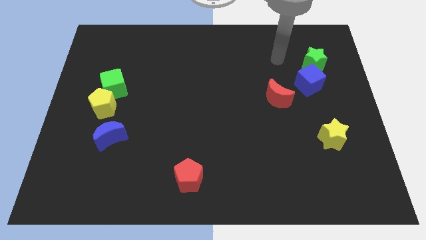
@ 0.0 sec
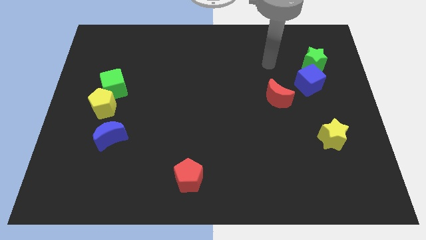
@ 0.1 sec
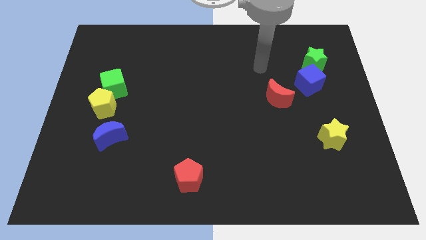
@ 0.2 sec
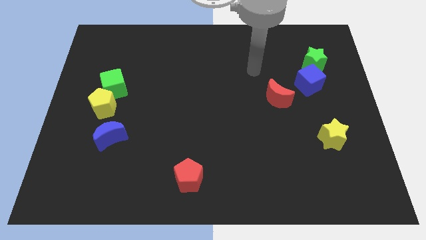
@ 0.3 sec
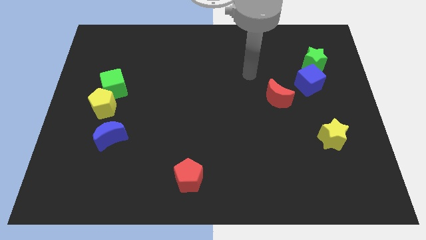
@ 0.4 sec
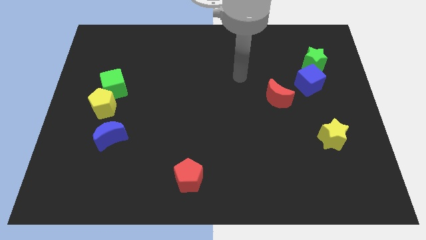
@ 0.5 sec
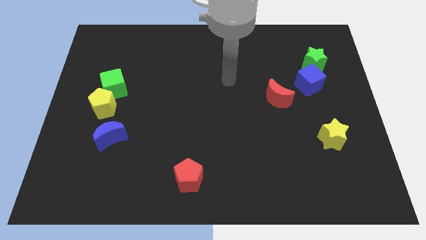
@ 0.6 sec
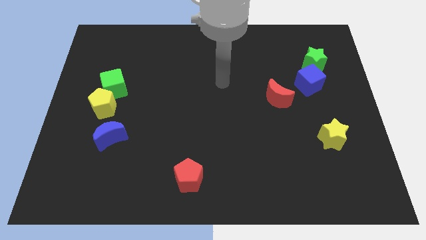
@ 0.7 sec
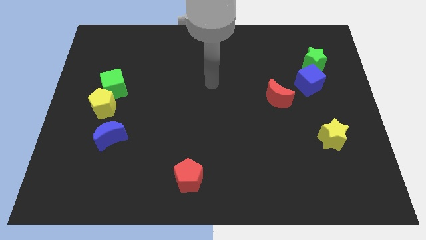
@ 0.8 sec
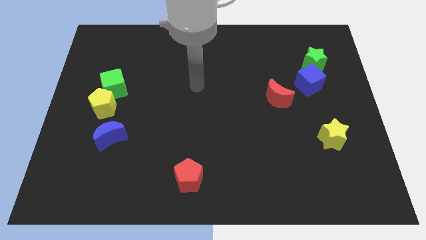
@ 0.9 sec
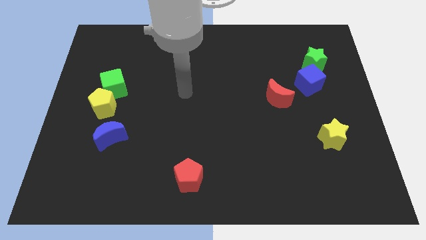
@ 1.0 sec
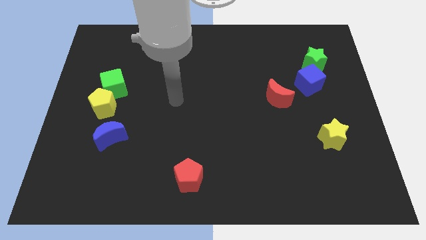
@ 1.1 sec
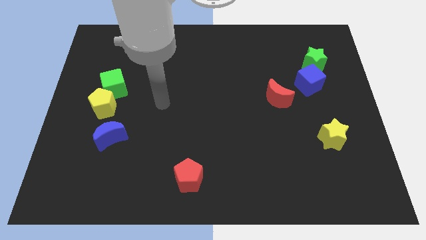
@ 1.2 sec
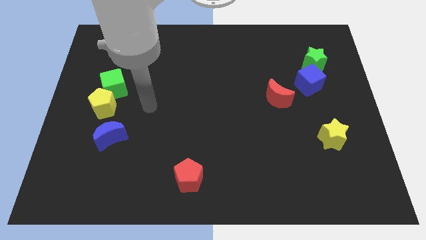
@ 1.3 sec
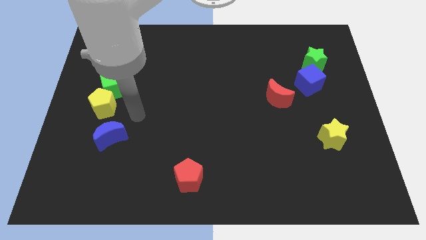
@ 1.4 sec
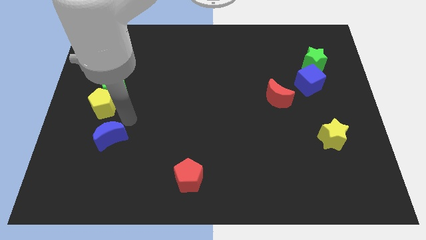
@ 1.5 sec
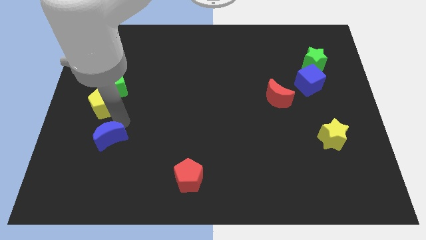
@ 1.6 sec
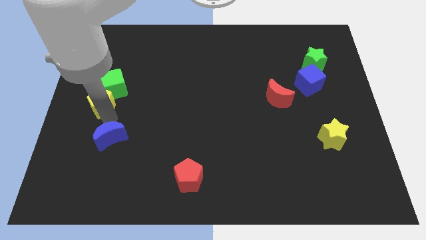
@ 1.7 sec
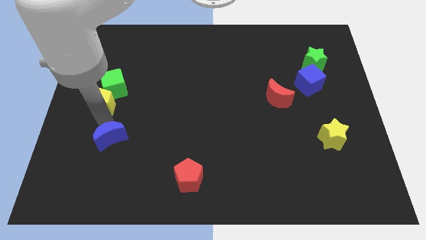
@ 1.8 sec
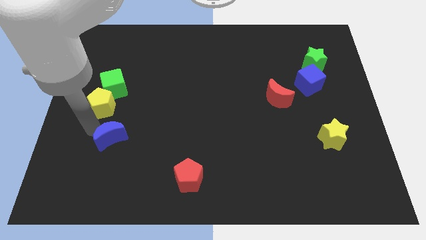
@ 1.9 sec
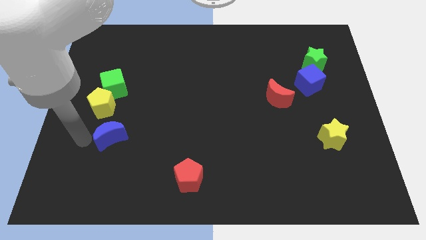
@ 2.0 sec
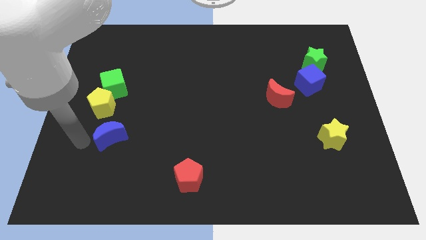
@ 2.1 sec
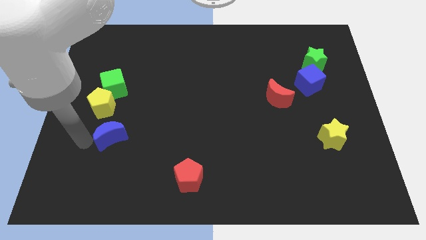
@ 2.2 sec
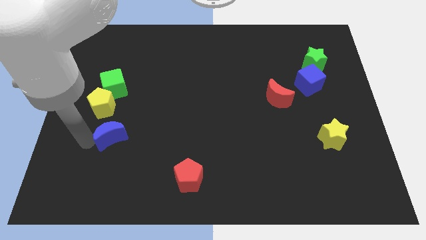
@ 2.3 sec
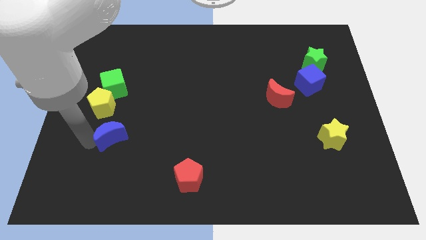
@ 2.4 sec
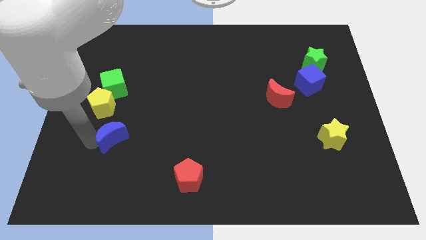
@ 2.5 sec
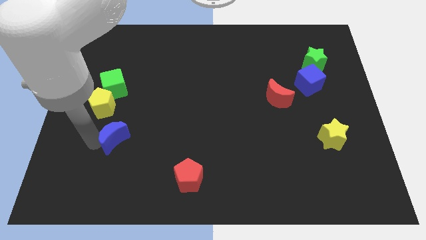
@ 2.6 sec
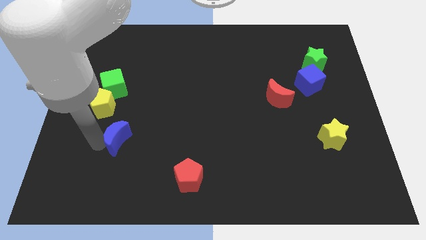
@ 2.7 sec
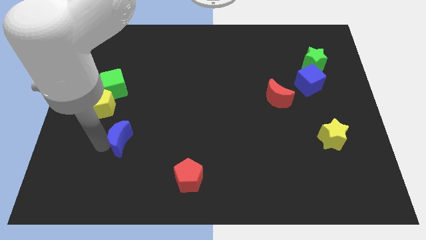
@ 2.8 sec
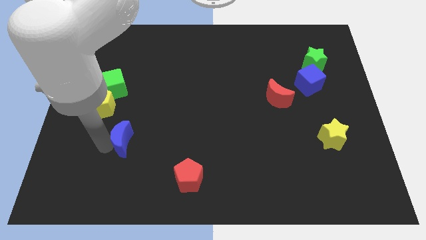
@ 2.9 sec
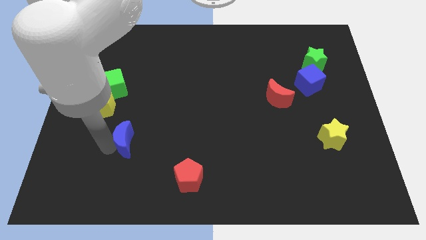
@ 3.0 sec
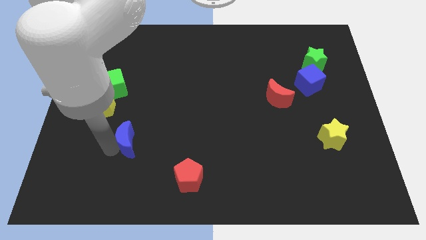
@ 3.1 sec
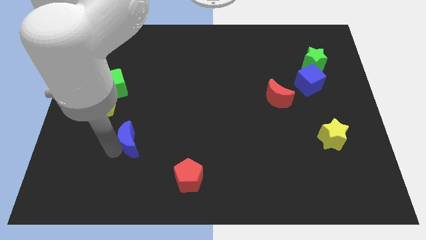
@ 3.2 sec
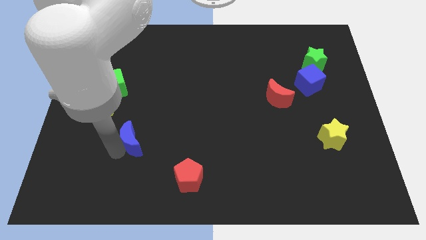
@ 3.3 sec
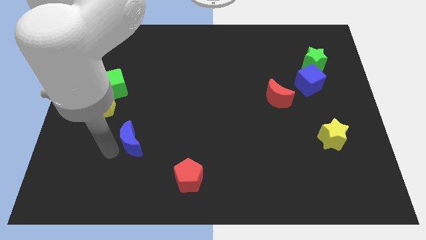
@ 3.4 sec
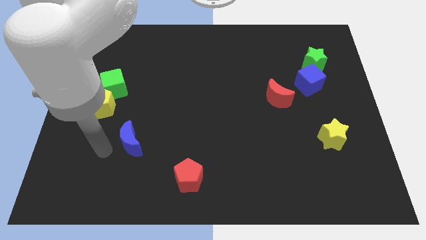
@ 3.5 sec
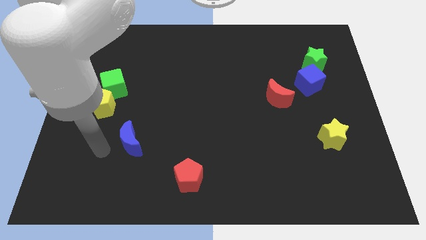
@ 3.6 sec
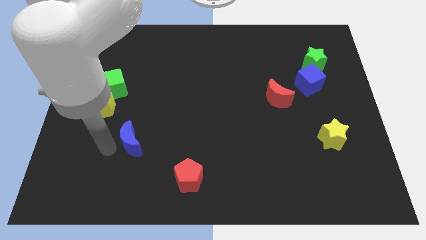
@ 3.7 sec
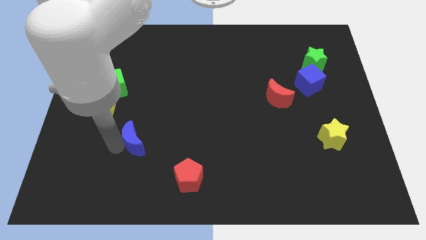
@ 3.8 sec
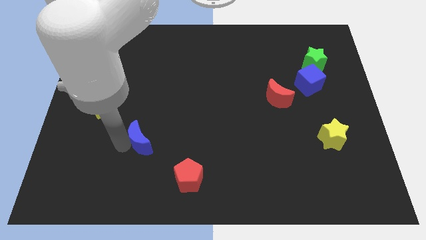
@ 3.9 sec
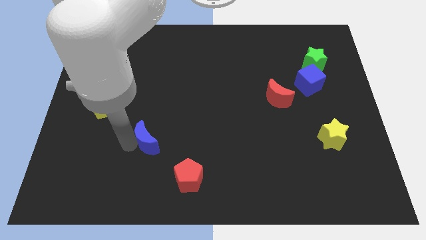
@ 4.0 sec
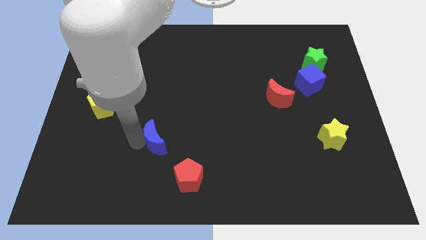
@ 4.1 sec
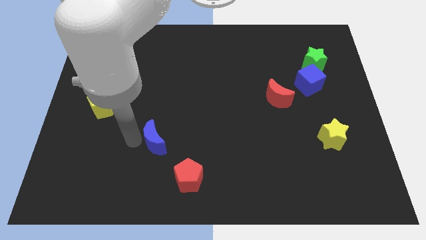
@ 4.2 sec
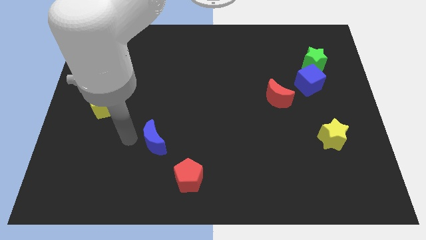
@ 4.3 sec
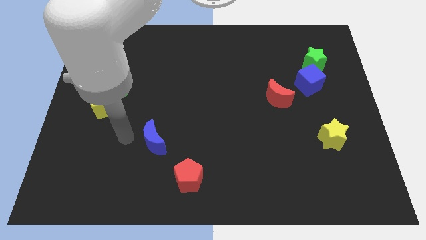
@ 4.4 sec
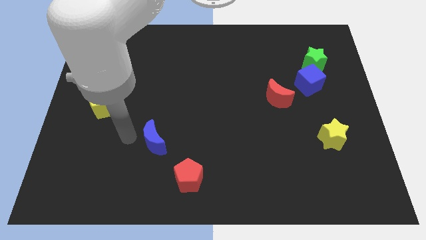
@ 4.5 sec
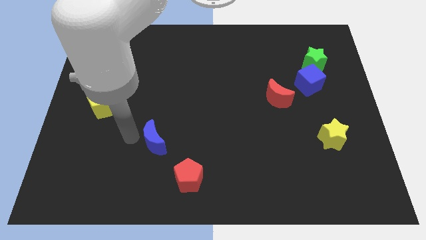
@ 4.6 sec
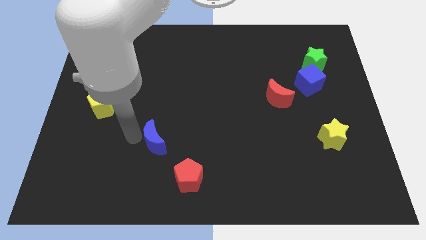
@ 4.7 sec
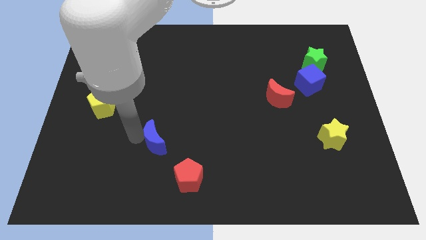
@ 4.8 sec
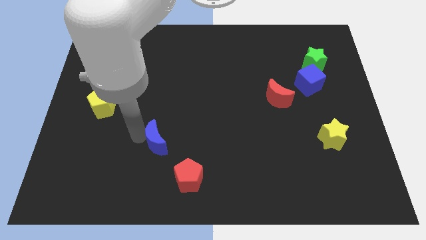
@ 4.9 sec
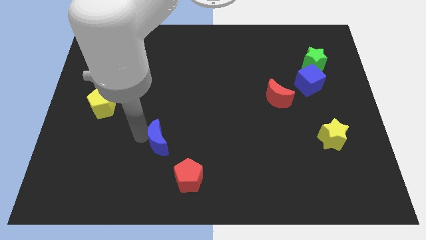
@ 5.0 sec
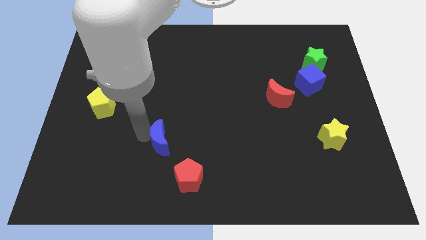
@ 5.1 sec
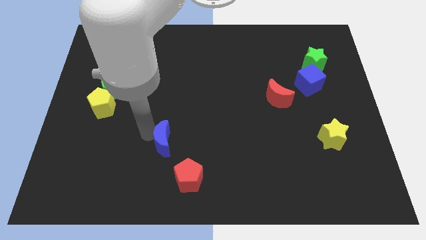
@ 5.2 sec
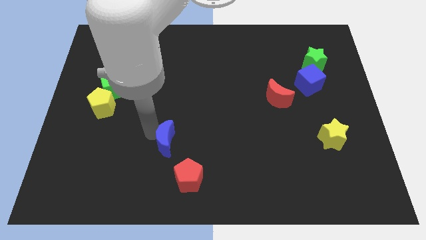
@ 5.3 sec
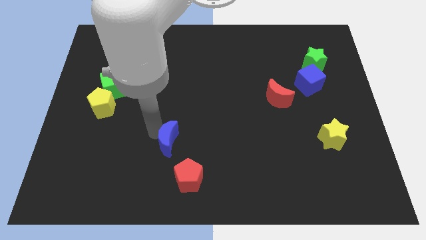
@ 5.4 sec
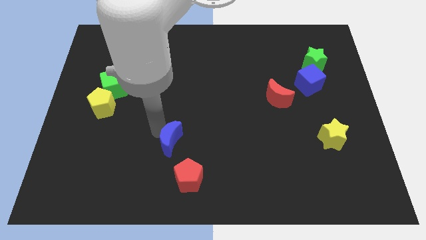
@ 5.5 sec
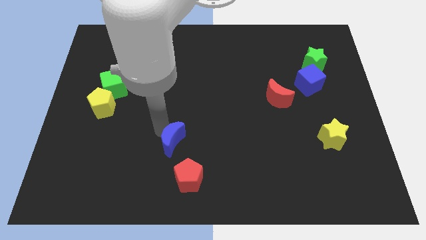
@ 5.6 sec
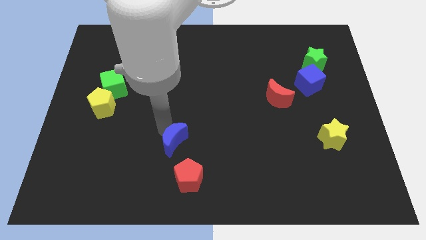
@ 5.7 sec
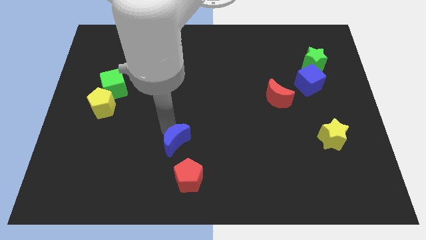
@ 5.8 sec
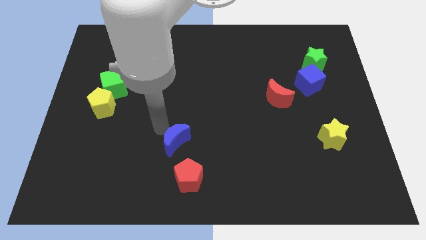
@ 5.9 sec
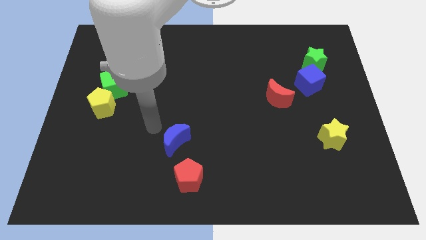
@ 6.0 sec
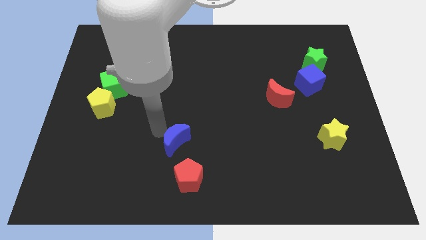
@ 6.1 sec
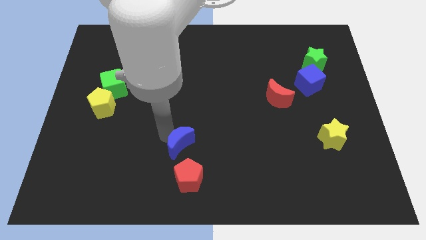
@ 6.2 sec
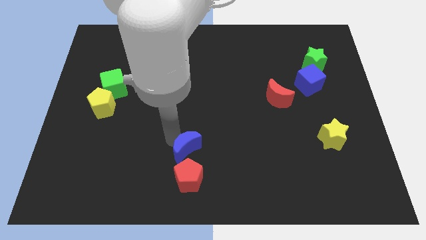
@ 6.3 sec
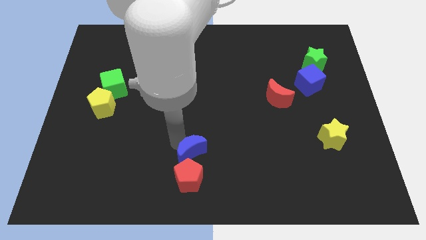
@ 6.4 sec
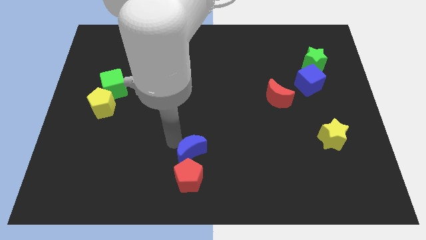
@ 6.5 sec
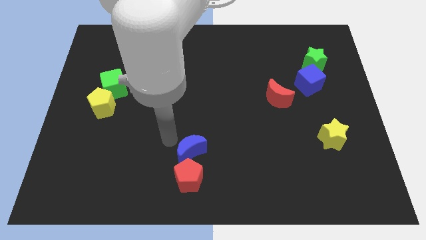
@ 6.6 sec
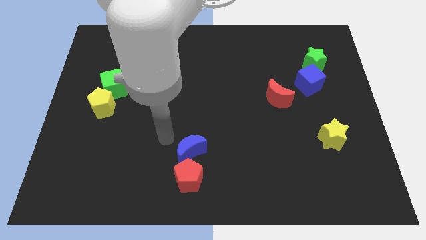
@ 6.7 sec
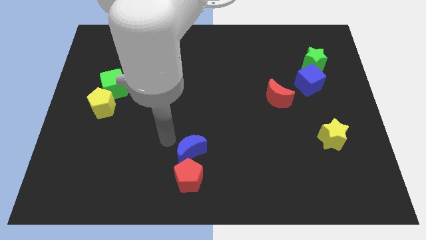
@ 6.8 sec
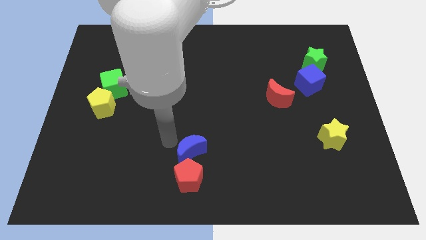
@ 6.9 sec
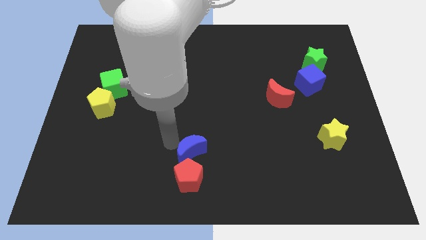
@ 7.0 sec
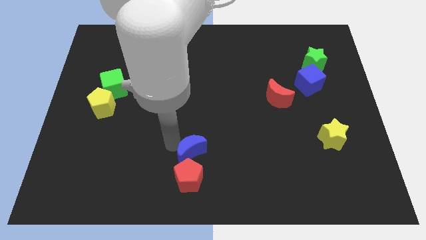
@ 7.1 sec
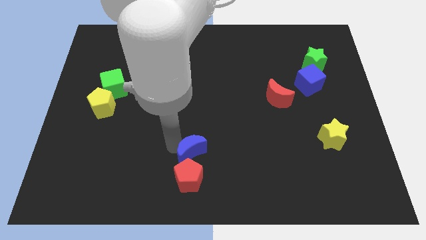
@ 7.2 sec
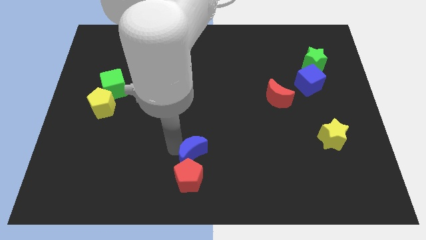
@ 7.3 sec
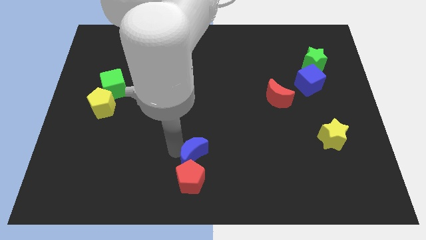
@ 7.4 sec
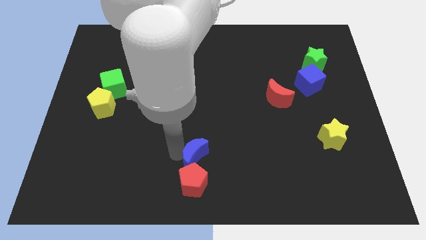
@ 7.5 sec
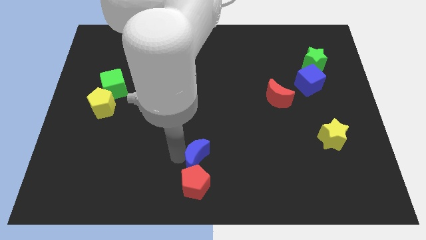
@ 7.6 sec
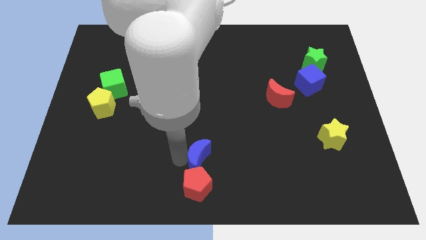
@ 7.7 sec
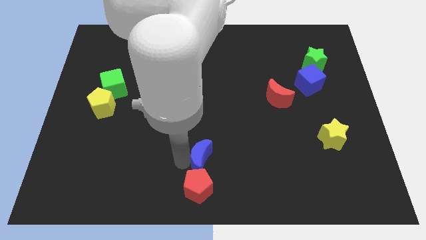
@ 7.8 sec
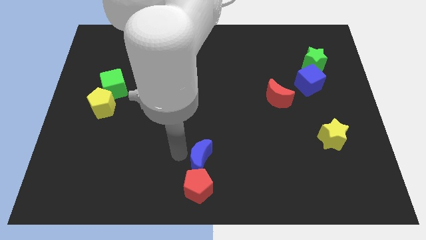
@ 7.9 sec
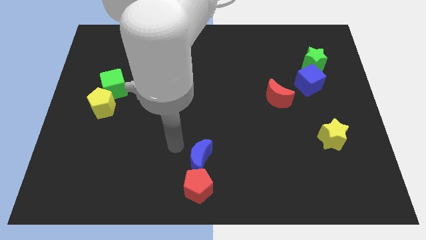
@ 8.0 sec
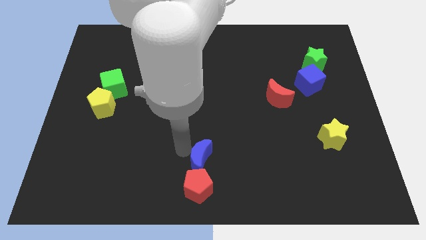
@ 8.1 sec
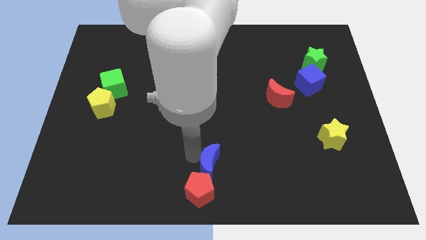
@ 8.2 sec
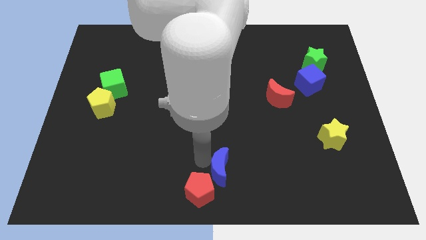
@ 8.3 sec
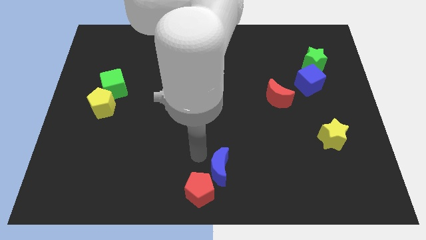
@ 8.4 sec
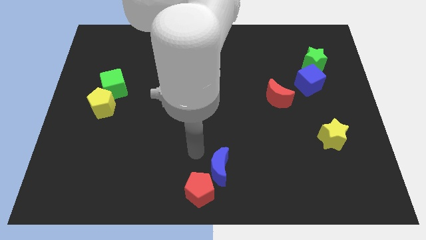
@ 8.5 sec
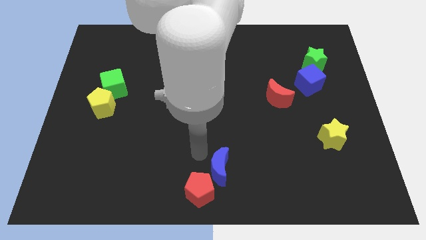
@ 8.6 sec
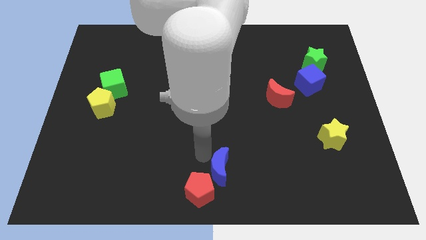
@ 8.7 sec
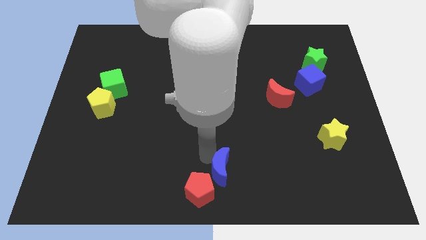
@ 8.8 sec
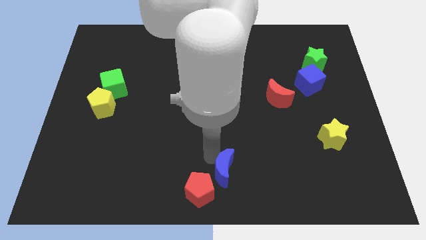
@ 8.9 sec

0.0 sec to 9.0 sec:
push the blue moon right of the red pentagon
